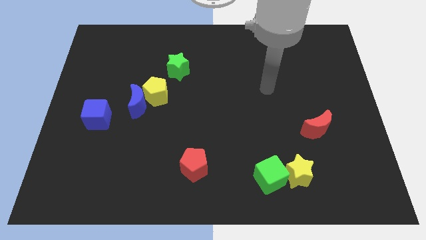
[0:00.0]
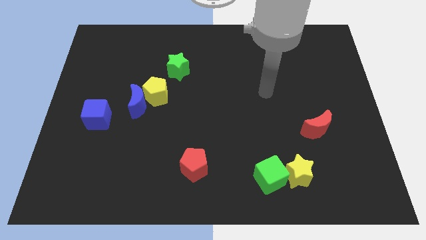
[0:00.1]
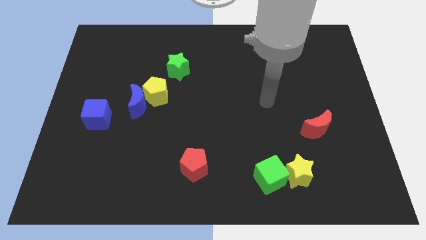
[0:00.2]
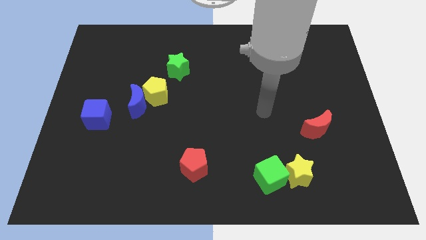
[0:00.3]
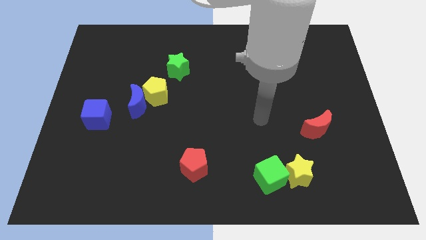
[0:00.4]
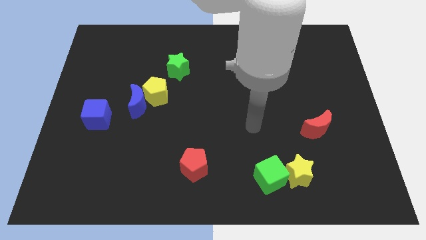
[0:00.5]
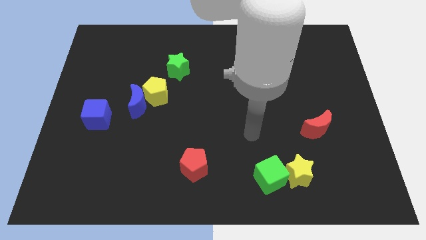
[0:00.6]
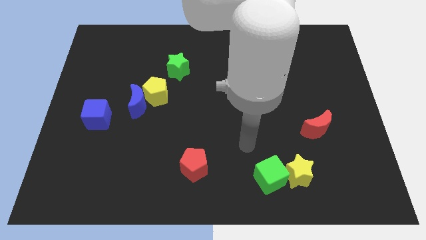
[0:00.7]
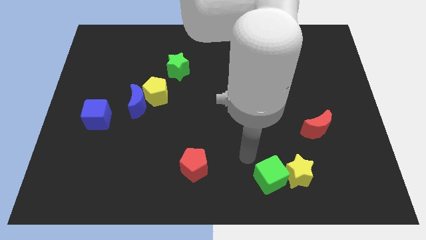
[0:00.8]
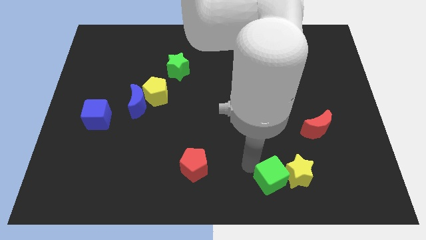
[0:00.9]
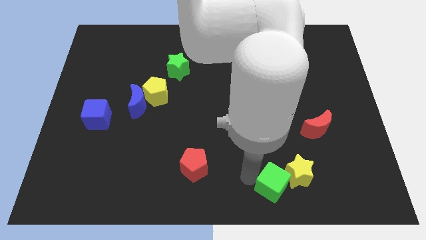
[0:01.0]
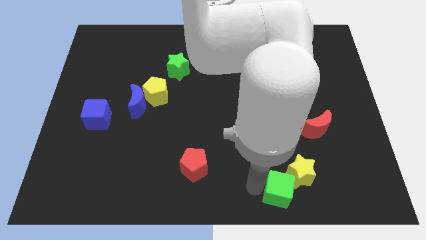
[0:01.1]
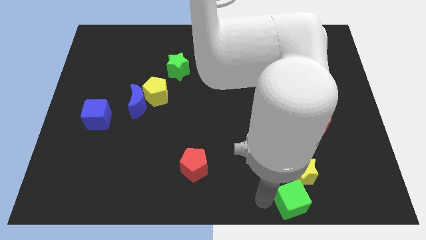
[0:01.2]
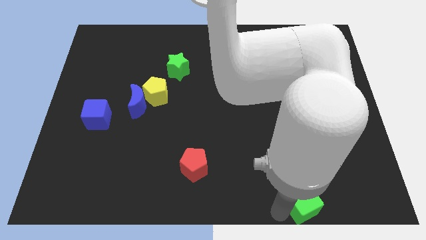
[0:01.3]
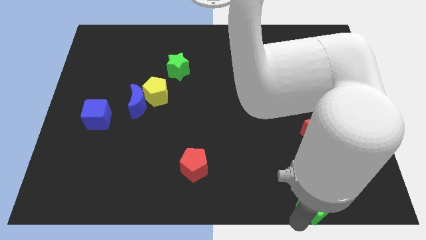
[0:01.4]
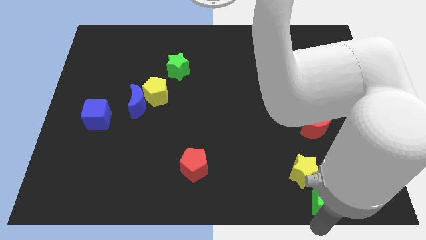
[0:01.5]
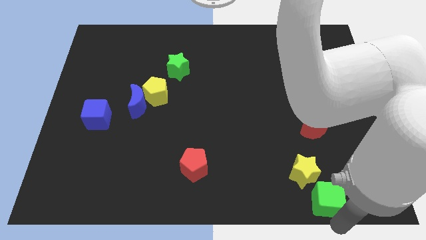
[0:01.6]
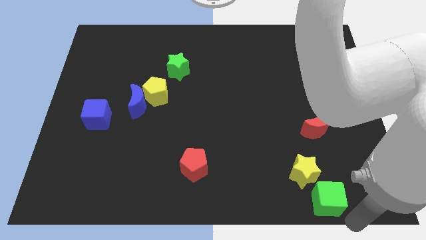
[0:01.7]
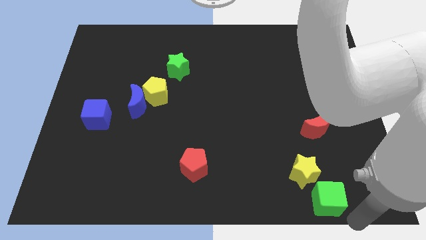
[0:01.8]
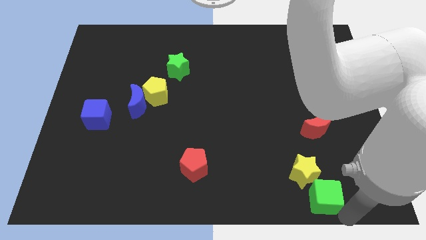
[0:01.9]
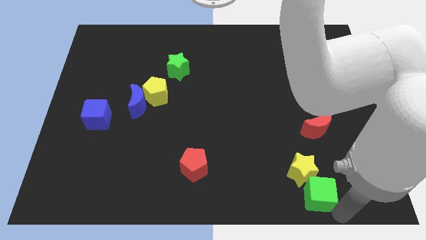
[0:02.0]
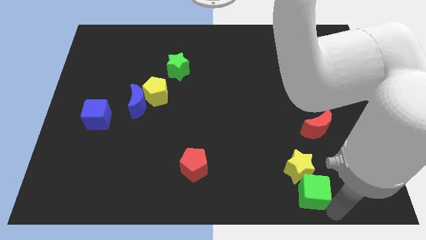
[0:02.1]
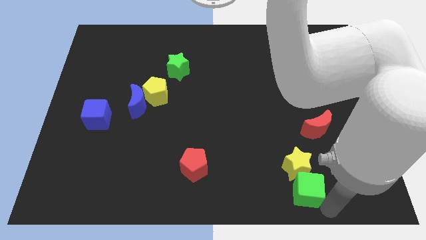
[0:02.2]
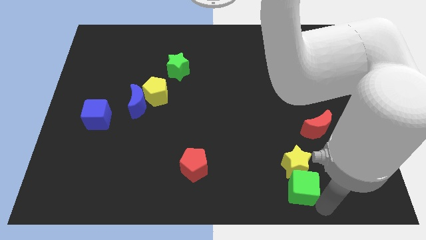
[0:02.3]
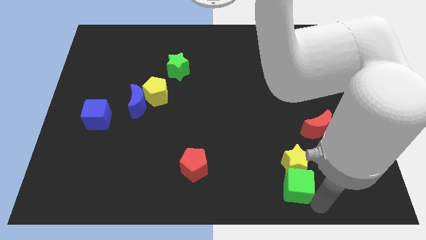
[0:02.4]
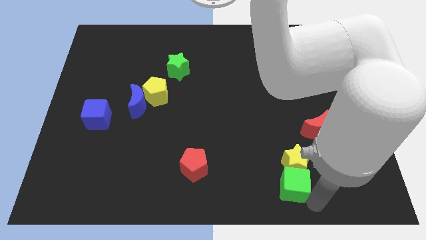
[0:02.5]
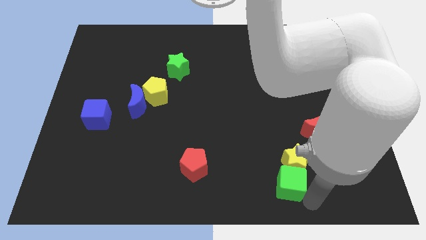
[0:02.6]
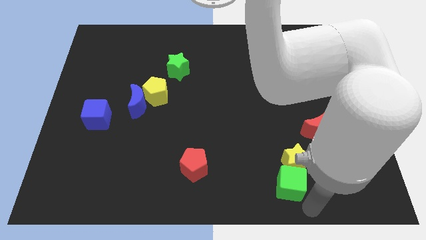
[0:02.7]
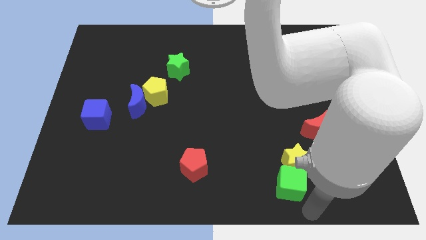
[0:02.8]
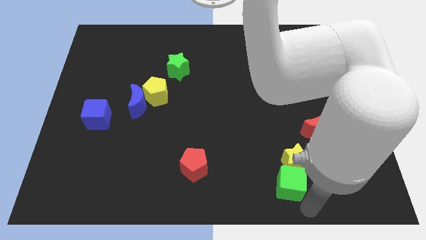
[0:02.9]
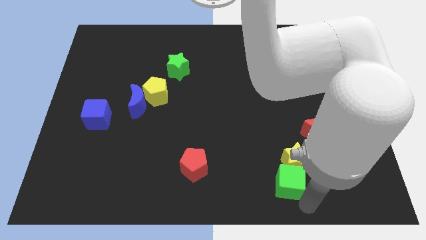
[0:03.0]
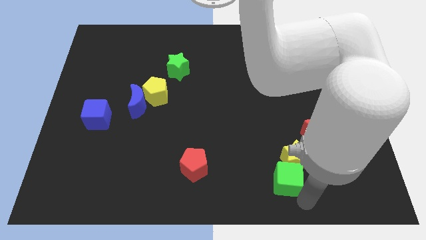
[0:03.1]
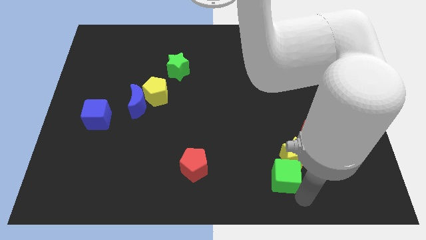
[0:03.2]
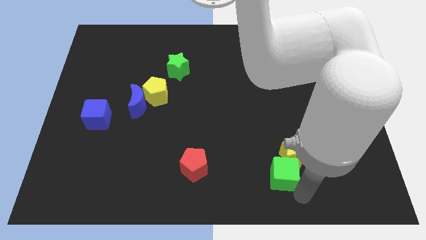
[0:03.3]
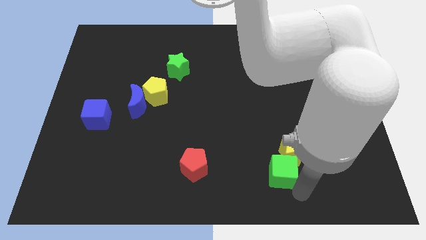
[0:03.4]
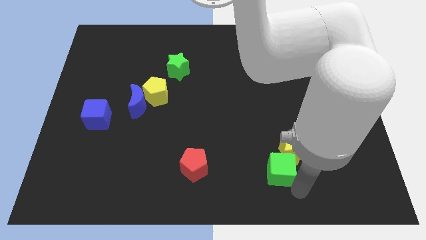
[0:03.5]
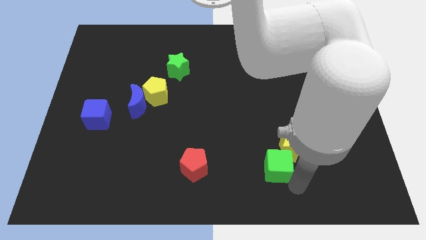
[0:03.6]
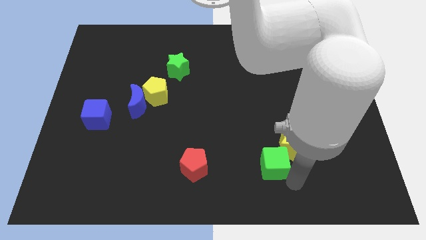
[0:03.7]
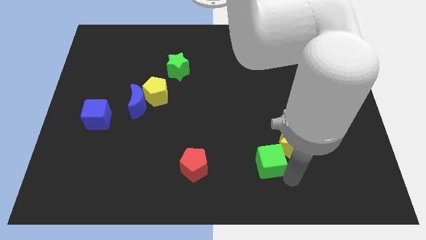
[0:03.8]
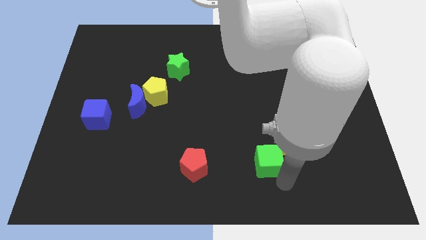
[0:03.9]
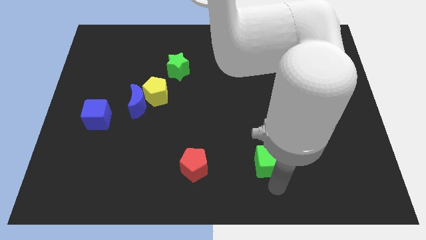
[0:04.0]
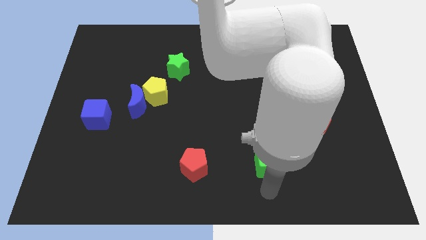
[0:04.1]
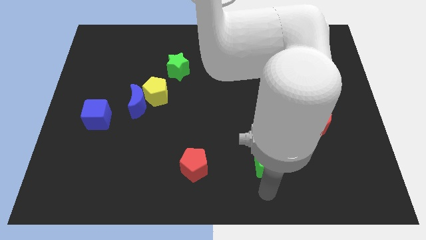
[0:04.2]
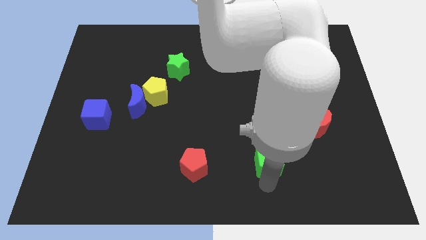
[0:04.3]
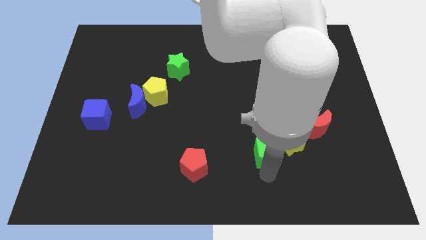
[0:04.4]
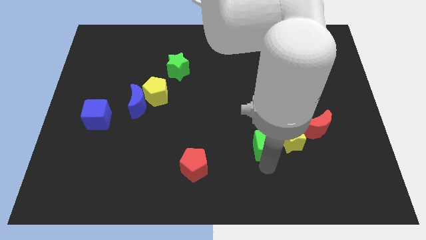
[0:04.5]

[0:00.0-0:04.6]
slightly push the green cube upwards

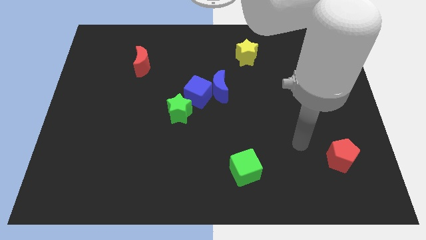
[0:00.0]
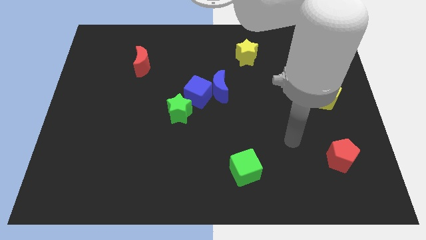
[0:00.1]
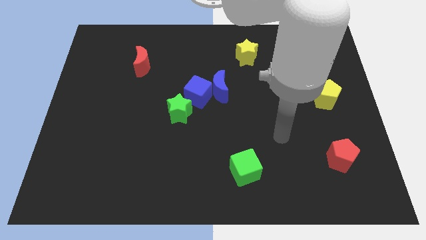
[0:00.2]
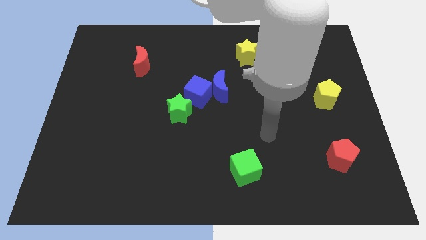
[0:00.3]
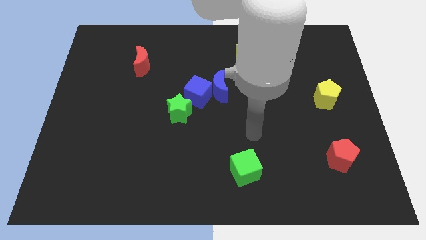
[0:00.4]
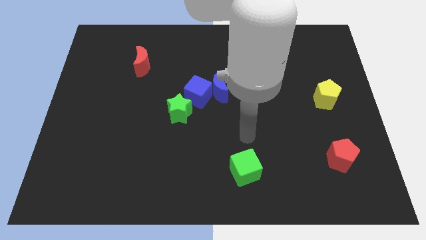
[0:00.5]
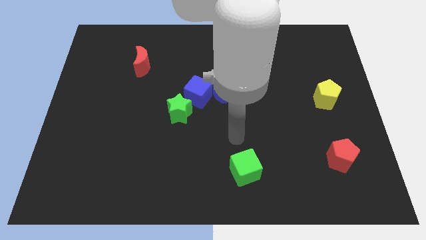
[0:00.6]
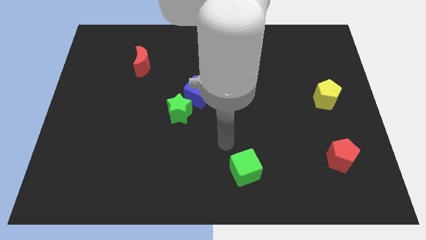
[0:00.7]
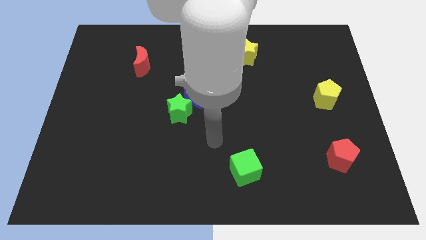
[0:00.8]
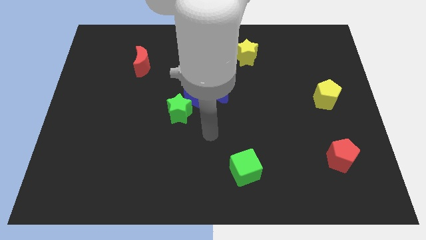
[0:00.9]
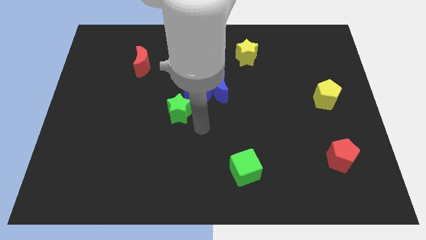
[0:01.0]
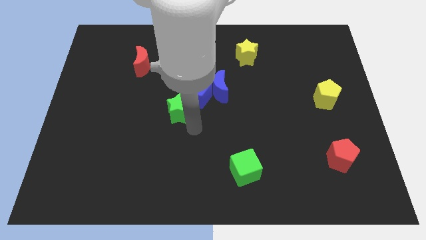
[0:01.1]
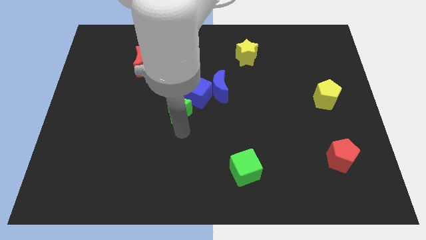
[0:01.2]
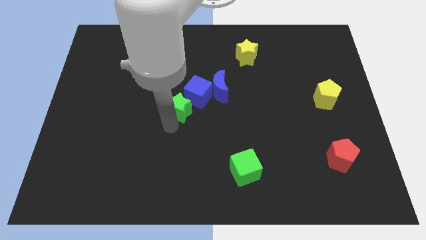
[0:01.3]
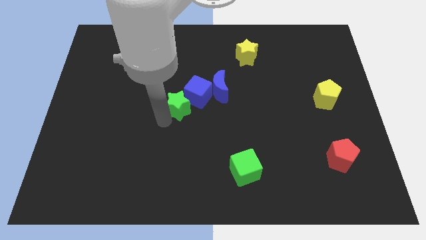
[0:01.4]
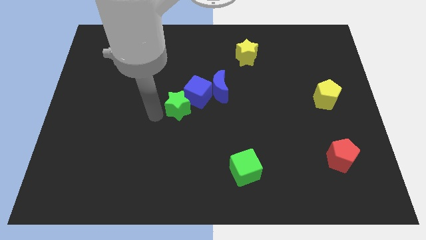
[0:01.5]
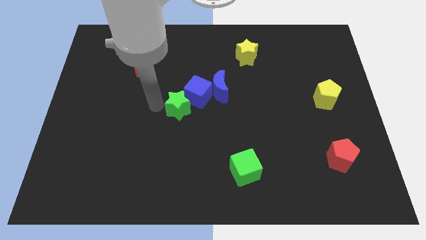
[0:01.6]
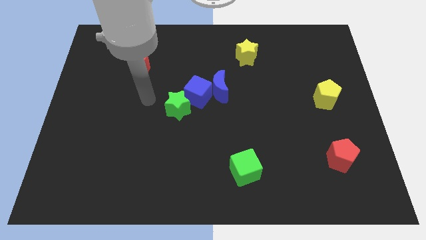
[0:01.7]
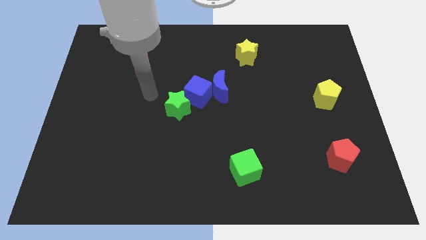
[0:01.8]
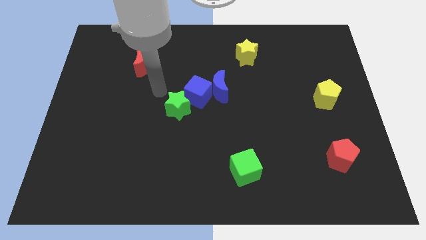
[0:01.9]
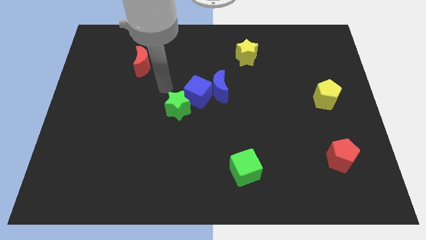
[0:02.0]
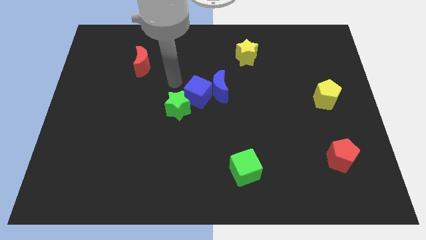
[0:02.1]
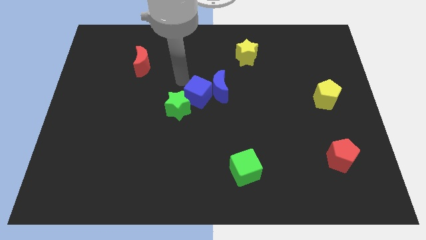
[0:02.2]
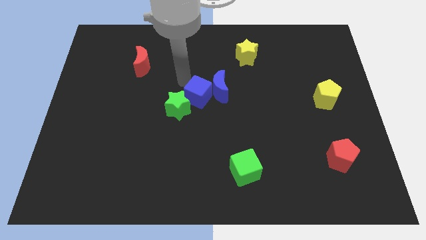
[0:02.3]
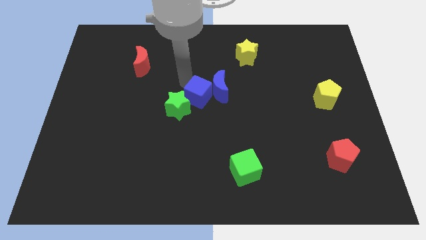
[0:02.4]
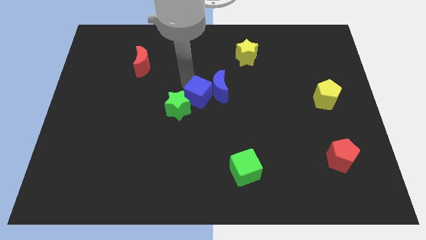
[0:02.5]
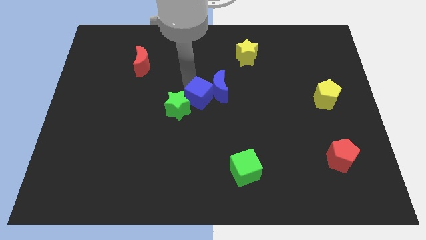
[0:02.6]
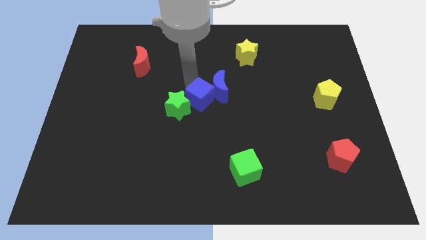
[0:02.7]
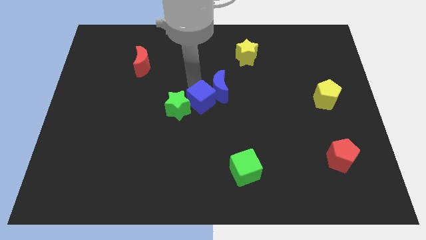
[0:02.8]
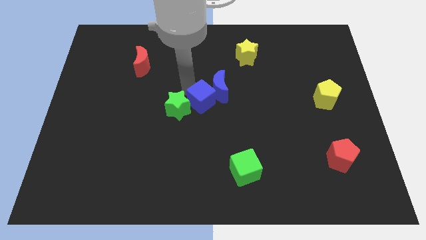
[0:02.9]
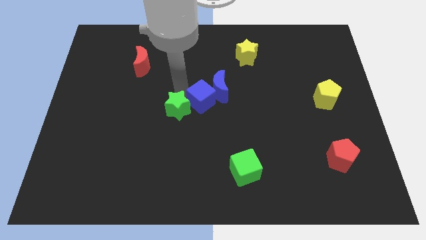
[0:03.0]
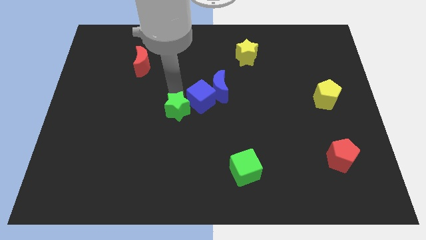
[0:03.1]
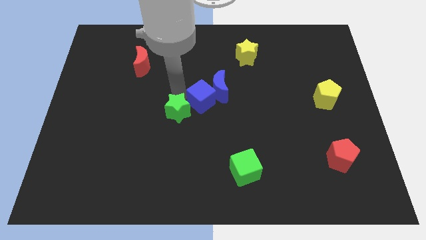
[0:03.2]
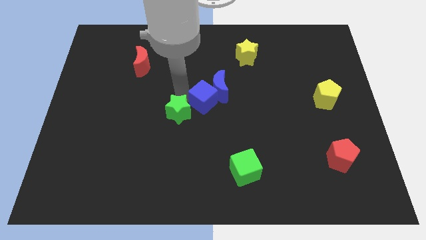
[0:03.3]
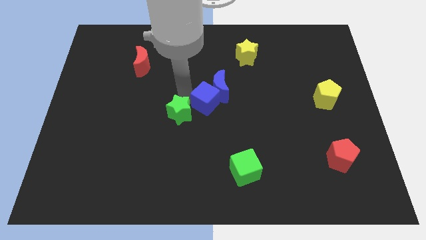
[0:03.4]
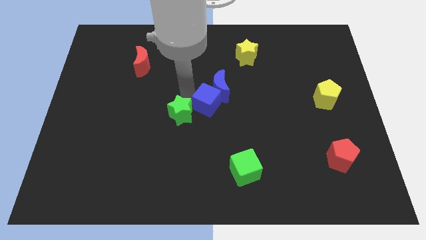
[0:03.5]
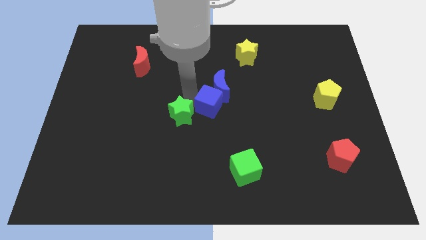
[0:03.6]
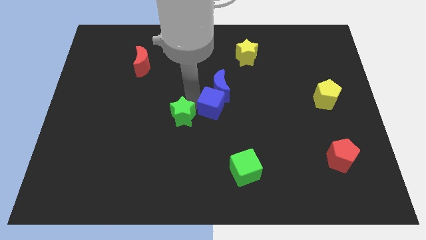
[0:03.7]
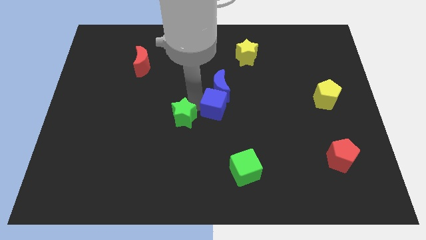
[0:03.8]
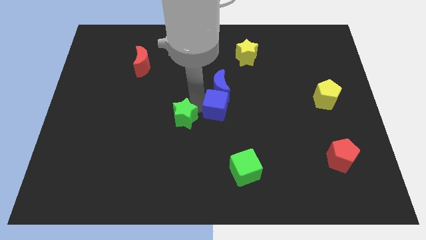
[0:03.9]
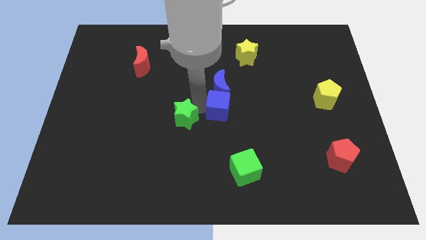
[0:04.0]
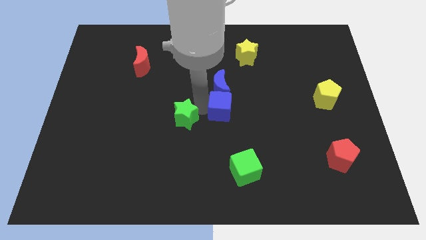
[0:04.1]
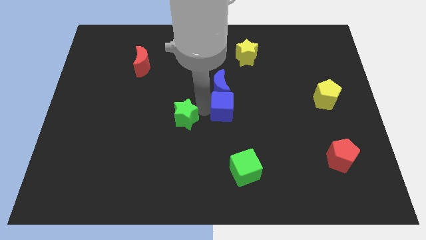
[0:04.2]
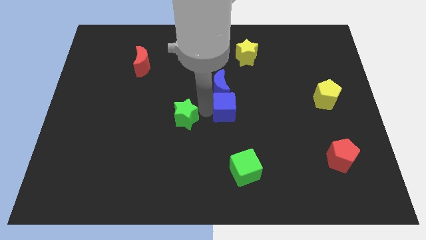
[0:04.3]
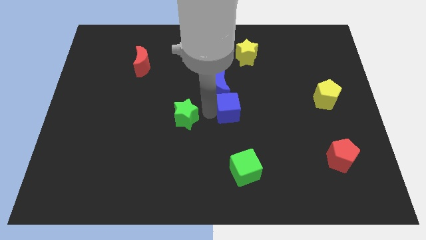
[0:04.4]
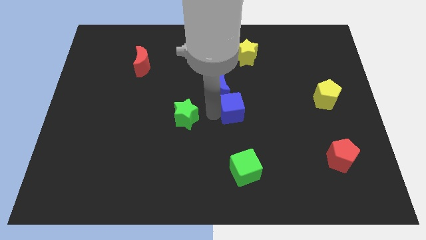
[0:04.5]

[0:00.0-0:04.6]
push the blue cube right somewhat
